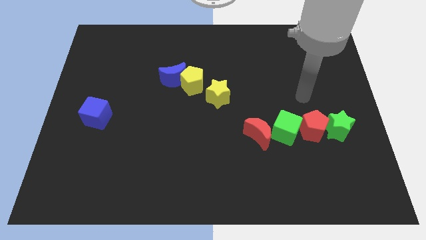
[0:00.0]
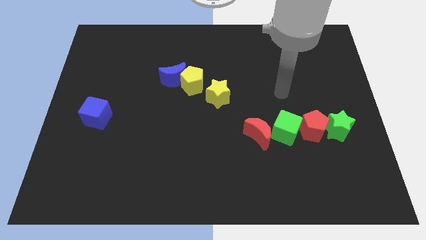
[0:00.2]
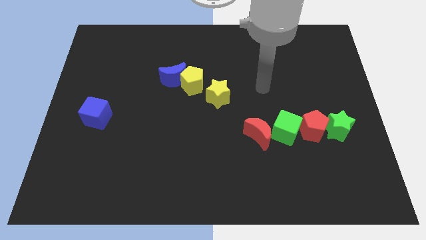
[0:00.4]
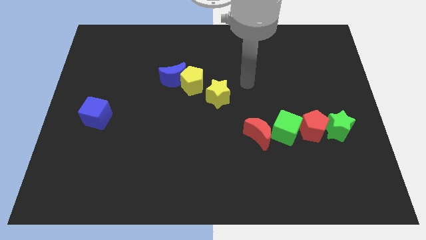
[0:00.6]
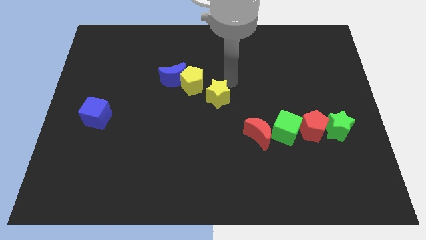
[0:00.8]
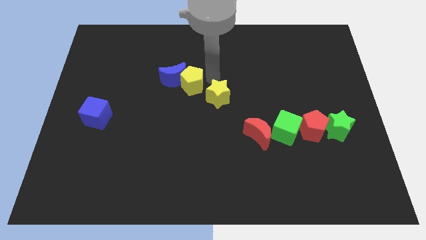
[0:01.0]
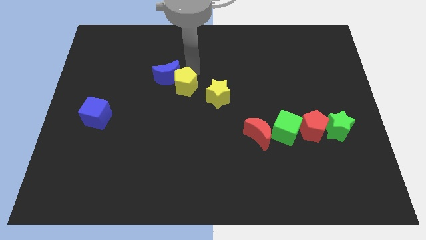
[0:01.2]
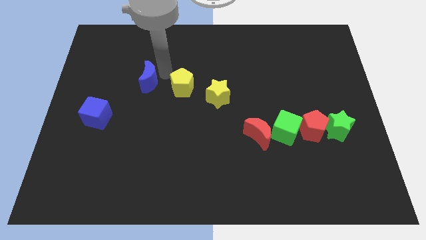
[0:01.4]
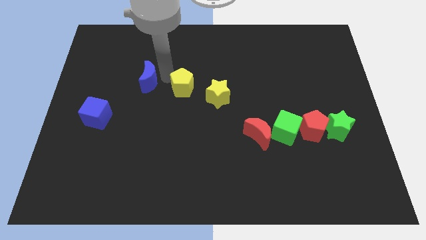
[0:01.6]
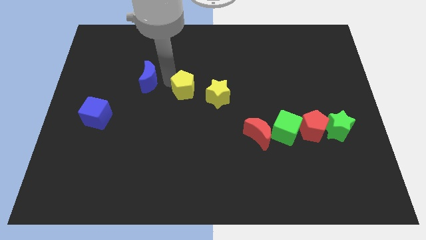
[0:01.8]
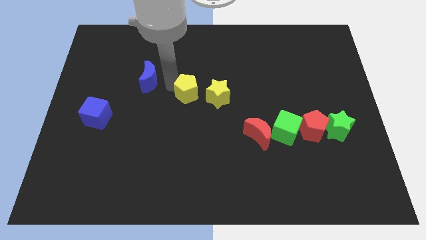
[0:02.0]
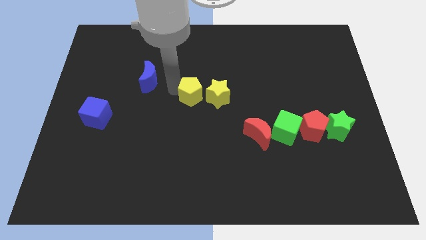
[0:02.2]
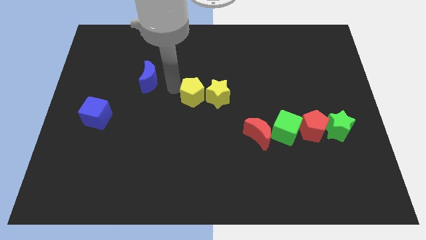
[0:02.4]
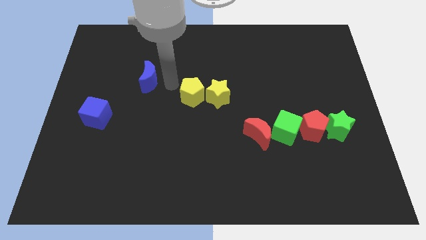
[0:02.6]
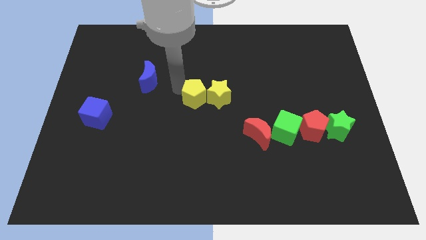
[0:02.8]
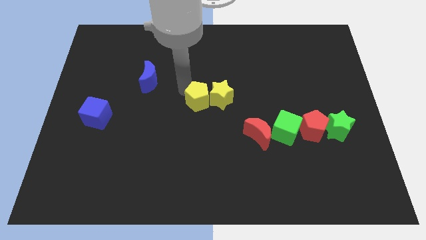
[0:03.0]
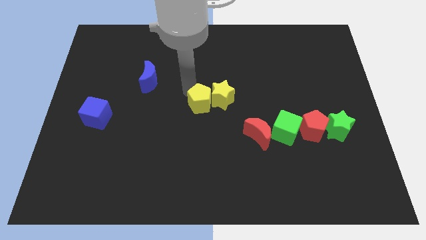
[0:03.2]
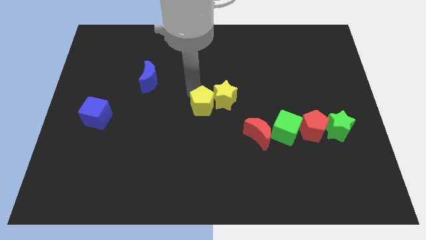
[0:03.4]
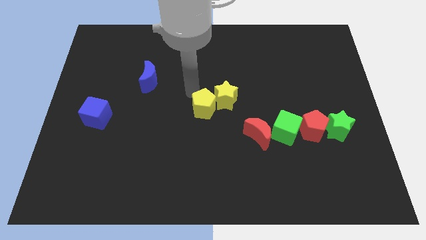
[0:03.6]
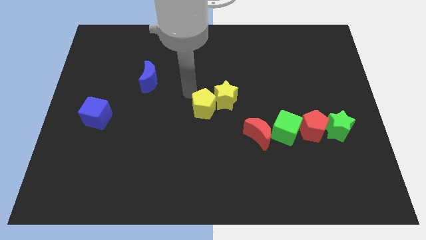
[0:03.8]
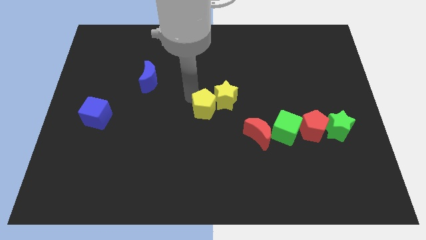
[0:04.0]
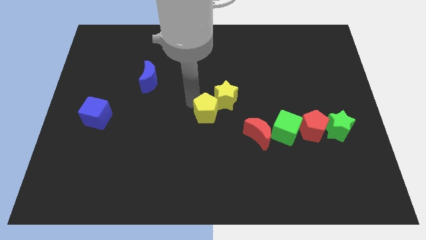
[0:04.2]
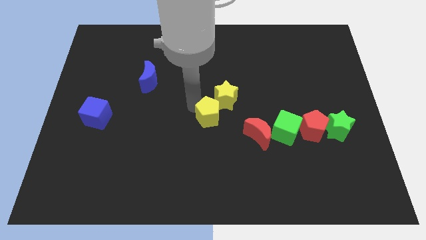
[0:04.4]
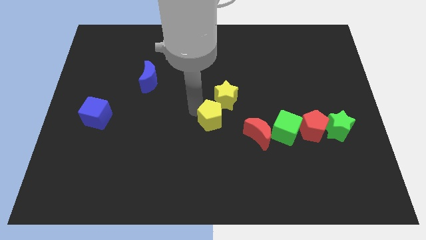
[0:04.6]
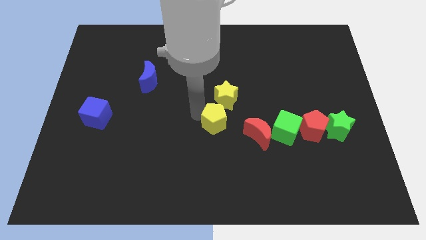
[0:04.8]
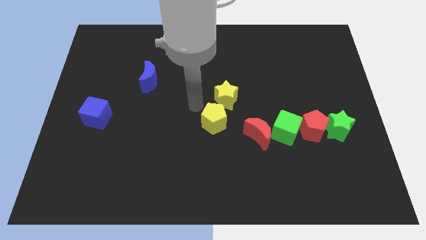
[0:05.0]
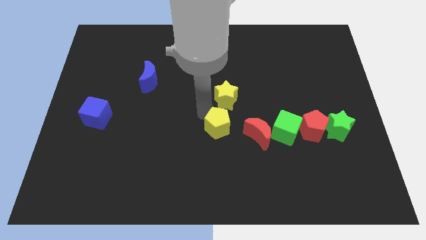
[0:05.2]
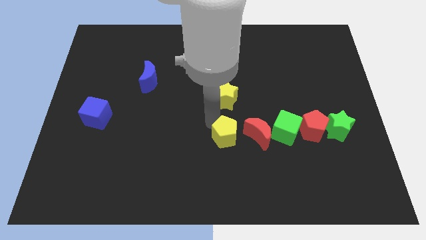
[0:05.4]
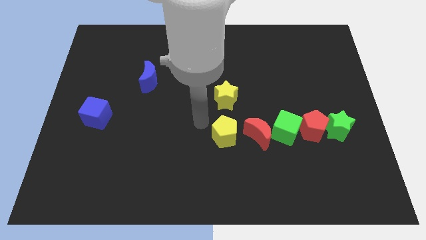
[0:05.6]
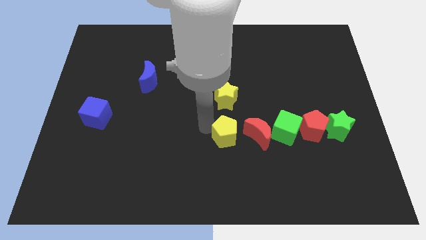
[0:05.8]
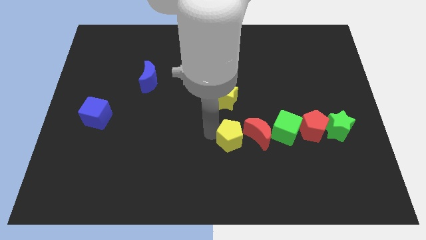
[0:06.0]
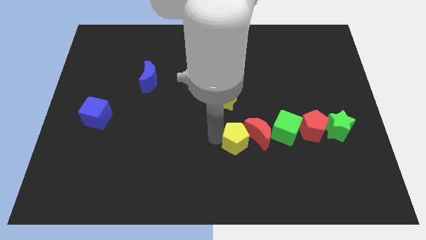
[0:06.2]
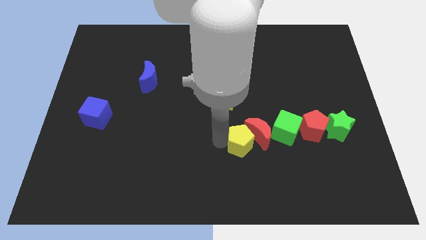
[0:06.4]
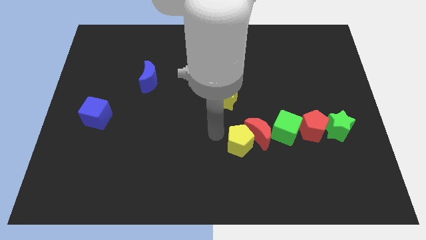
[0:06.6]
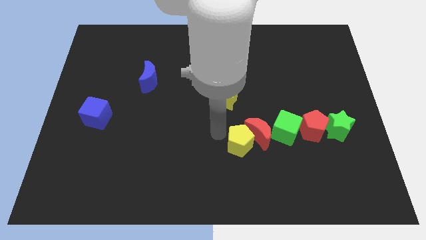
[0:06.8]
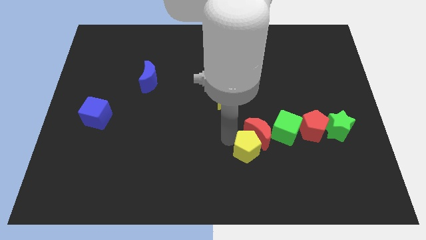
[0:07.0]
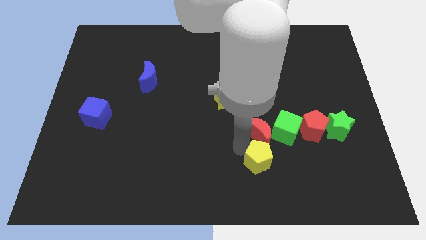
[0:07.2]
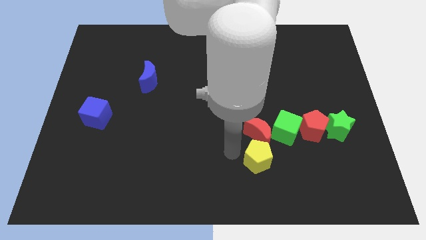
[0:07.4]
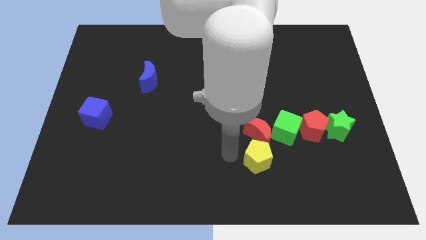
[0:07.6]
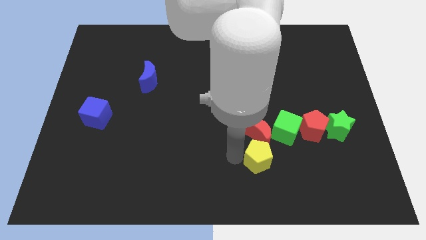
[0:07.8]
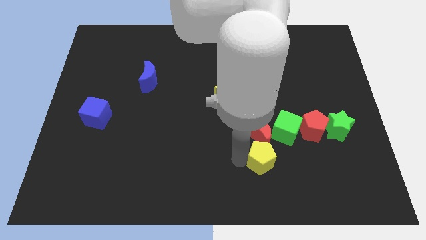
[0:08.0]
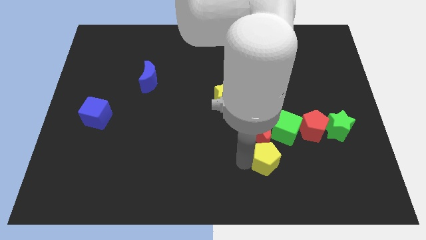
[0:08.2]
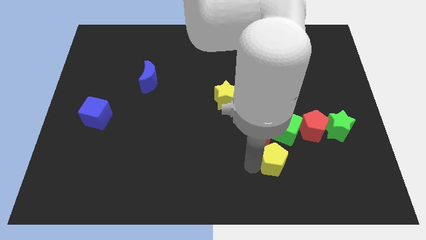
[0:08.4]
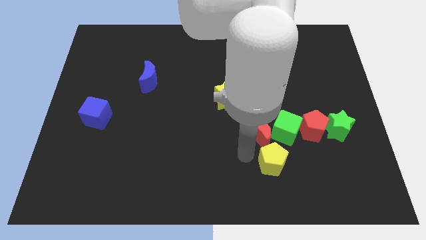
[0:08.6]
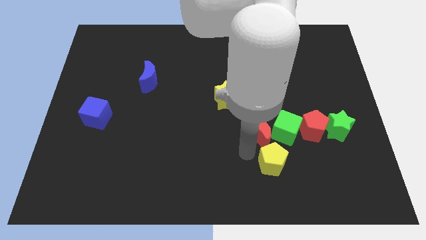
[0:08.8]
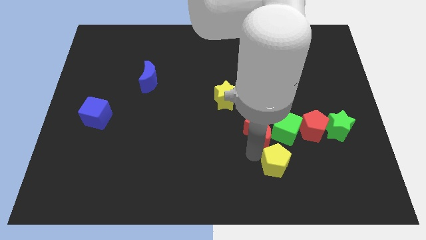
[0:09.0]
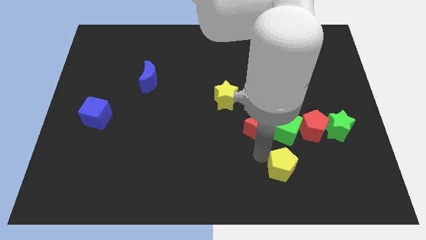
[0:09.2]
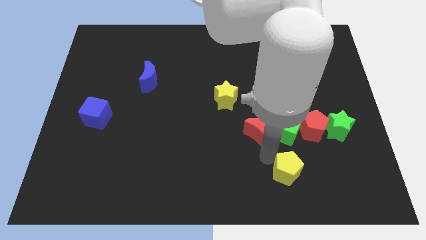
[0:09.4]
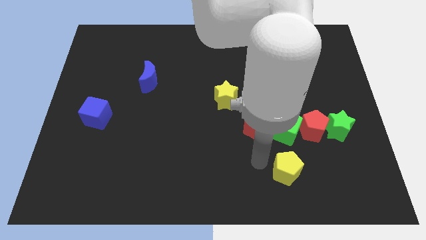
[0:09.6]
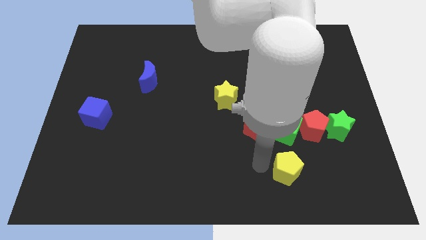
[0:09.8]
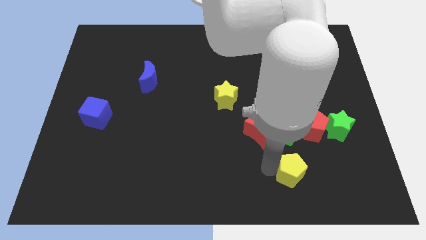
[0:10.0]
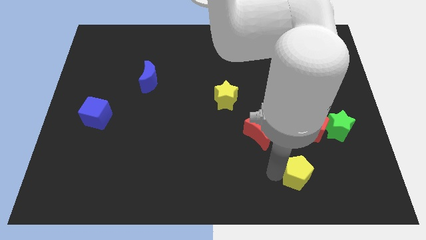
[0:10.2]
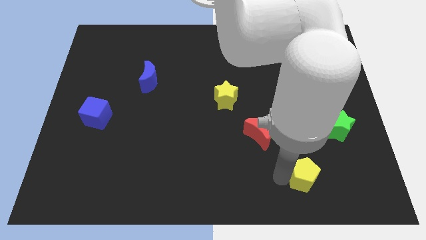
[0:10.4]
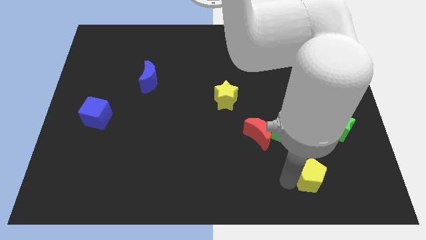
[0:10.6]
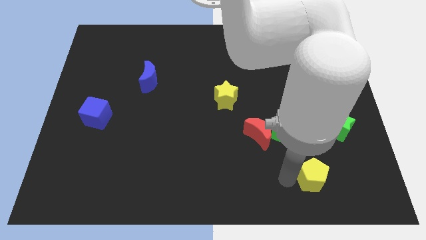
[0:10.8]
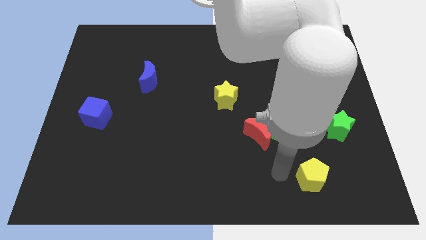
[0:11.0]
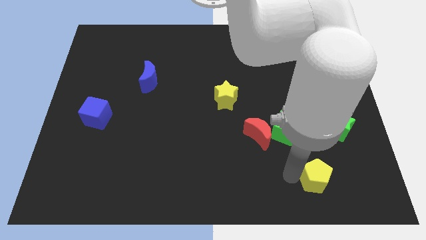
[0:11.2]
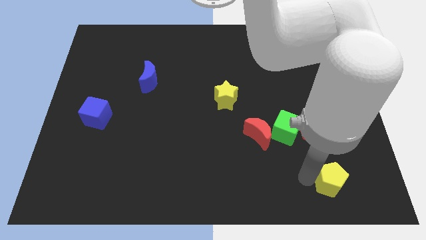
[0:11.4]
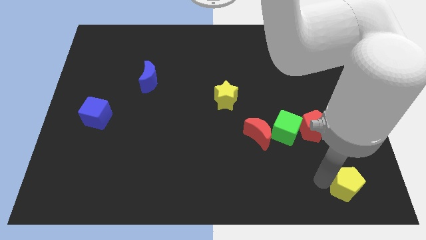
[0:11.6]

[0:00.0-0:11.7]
push the yellow pentagon to the lower right corner
